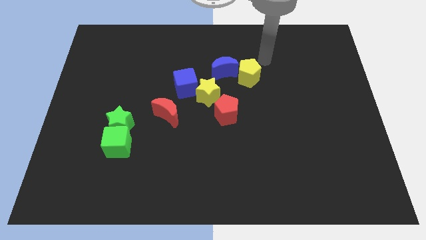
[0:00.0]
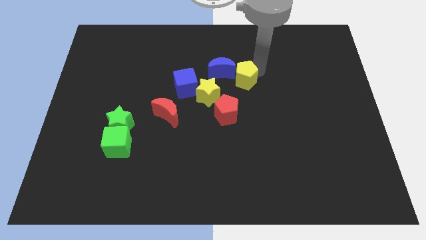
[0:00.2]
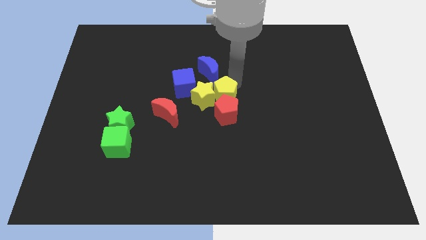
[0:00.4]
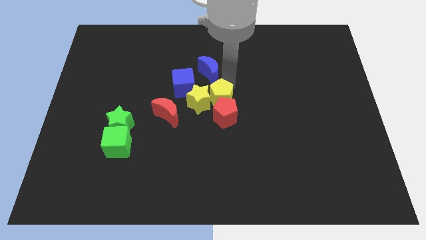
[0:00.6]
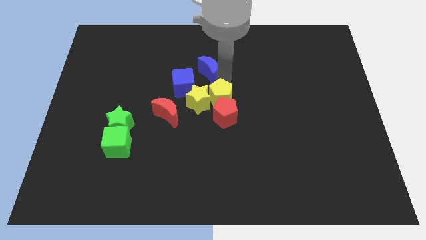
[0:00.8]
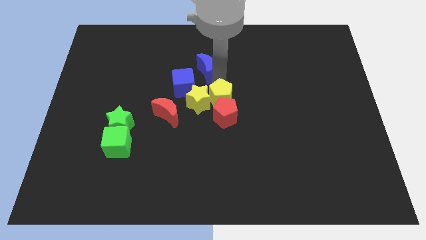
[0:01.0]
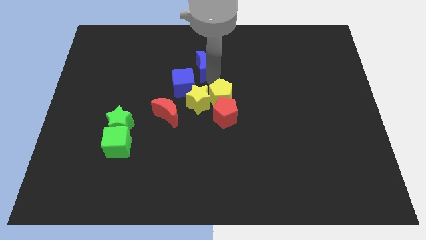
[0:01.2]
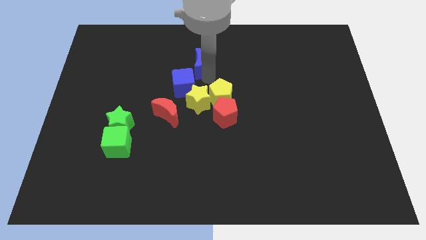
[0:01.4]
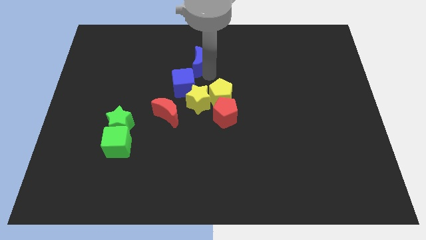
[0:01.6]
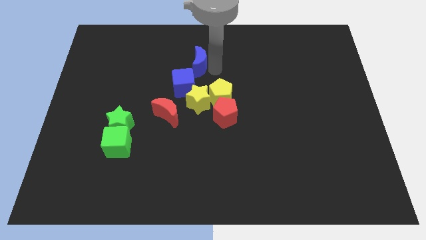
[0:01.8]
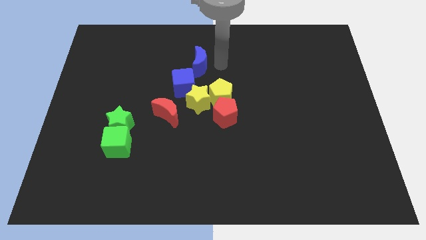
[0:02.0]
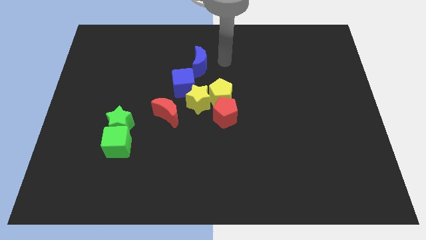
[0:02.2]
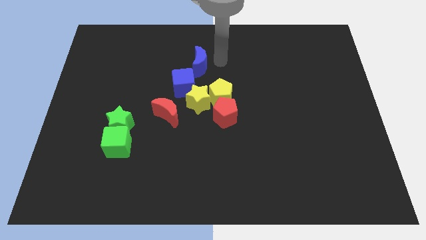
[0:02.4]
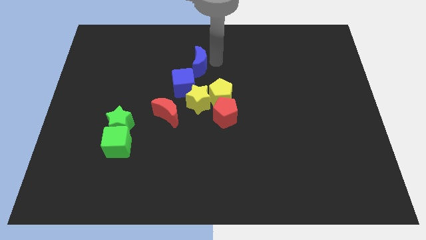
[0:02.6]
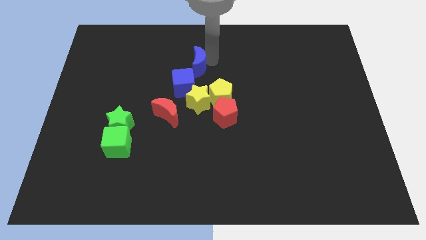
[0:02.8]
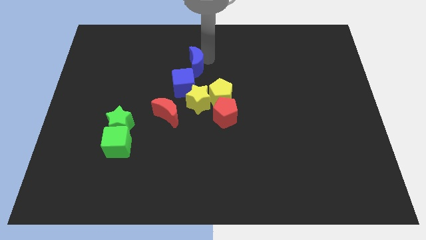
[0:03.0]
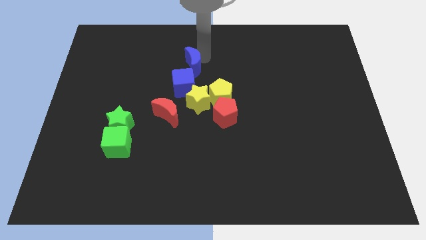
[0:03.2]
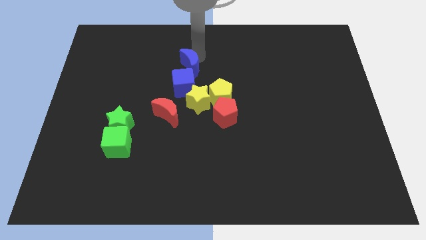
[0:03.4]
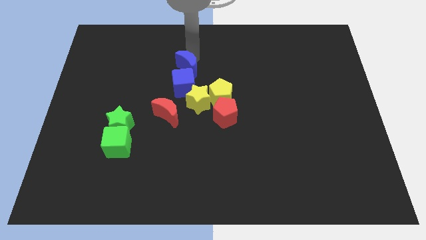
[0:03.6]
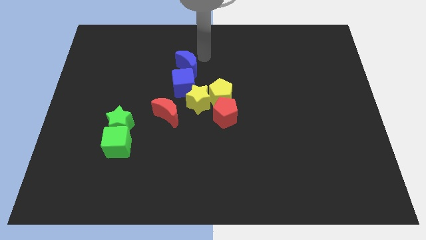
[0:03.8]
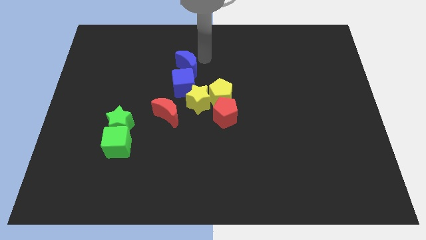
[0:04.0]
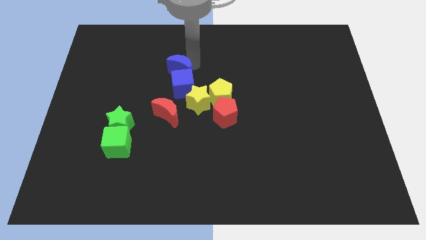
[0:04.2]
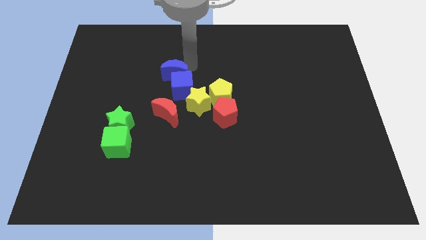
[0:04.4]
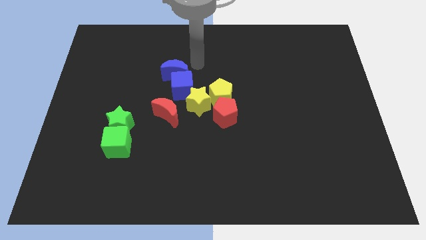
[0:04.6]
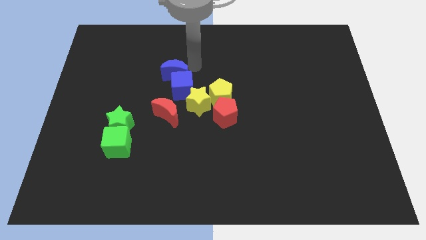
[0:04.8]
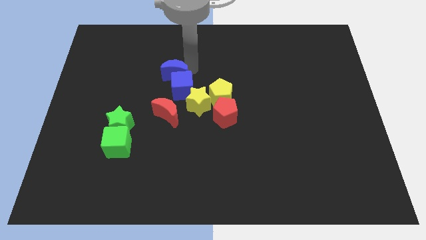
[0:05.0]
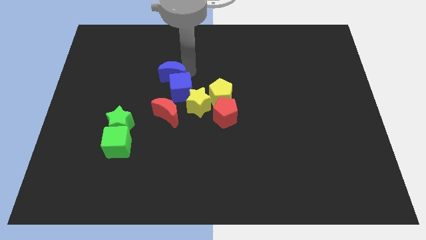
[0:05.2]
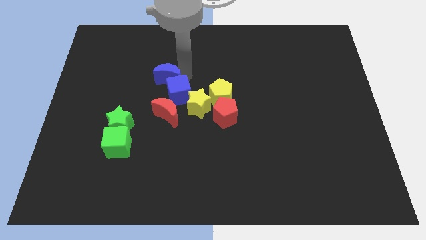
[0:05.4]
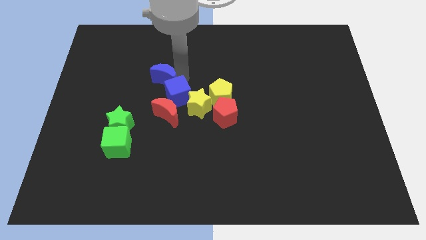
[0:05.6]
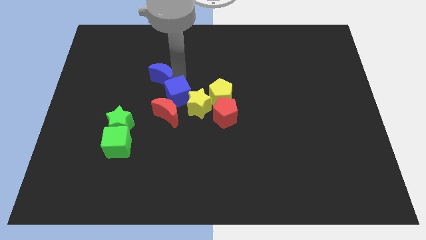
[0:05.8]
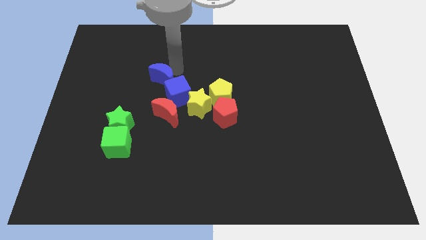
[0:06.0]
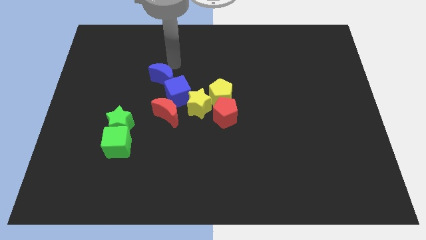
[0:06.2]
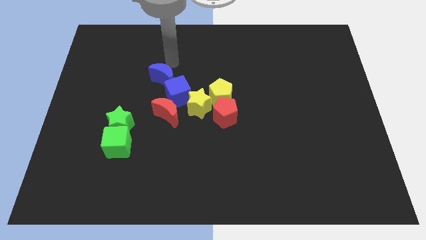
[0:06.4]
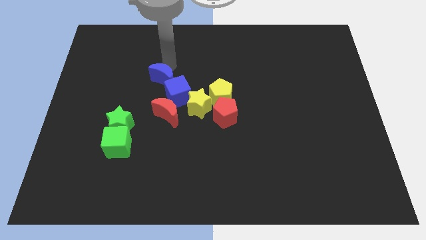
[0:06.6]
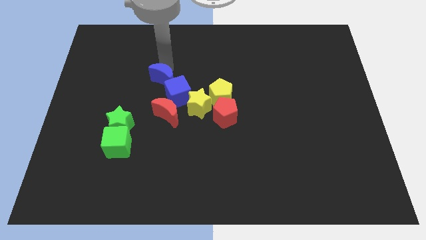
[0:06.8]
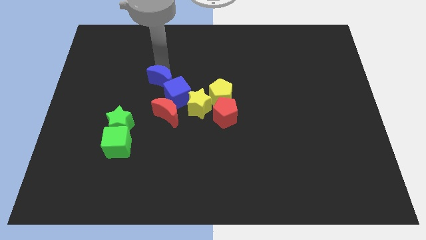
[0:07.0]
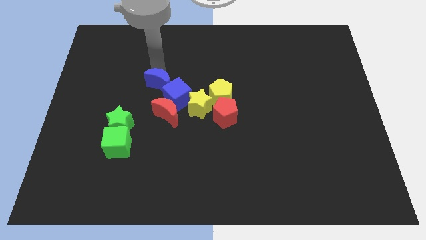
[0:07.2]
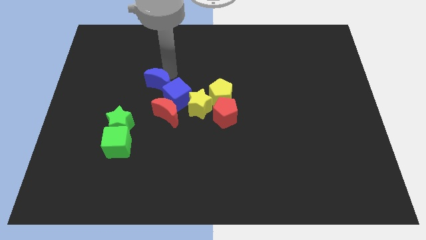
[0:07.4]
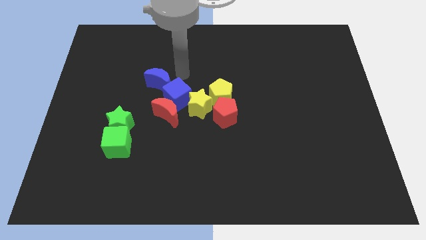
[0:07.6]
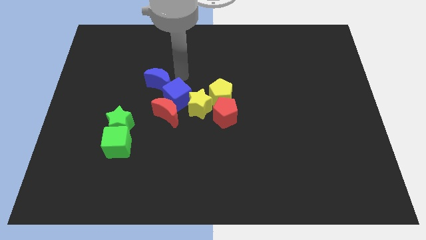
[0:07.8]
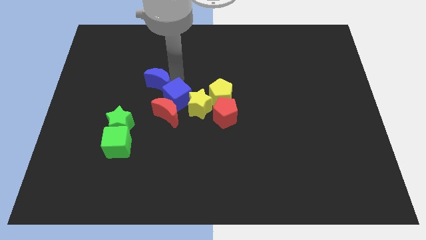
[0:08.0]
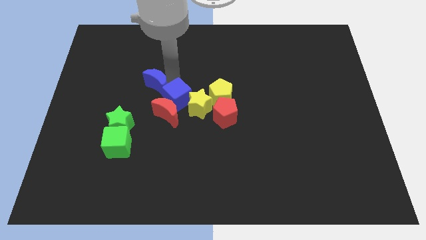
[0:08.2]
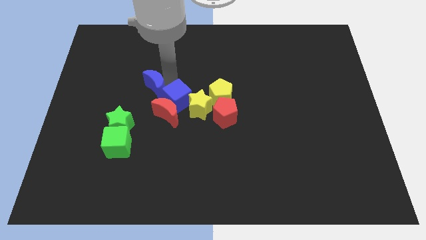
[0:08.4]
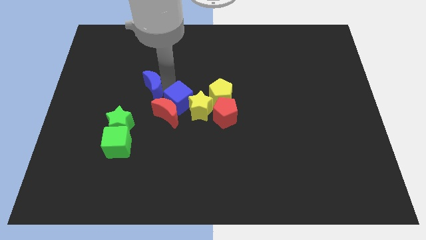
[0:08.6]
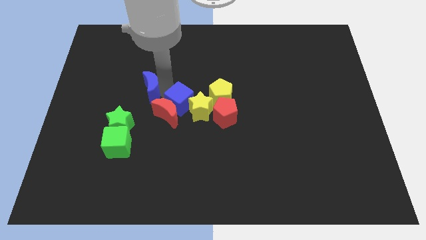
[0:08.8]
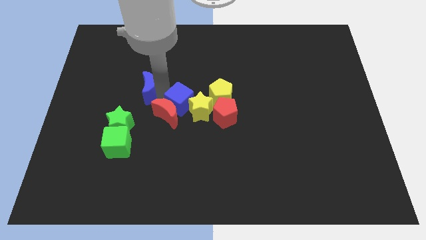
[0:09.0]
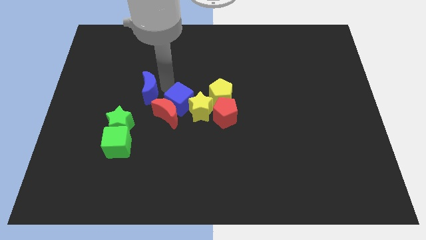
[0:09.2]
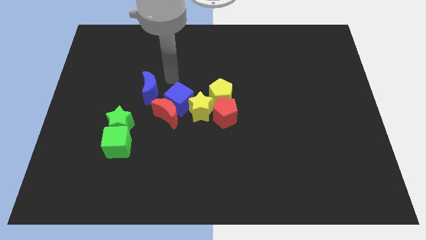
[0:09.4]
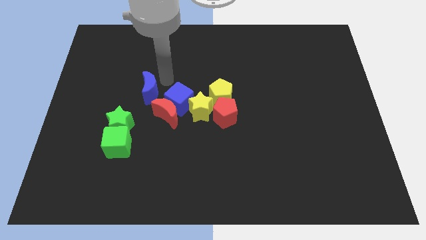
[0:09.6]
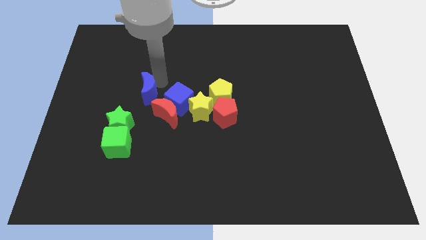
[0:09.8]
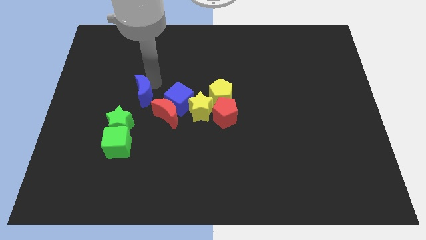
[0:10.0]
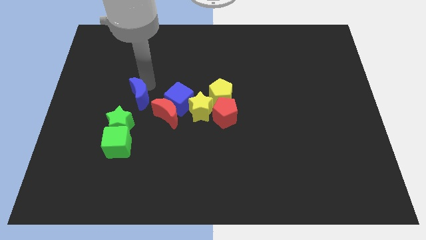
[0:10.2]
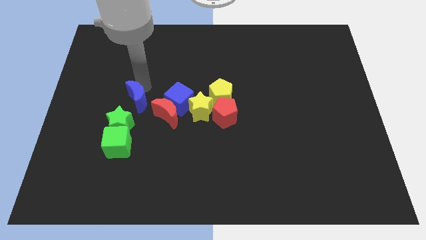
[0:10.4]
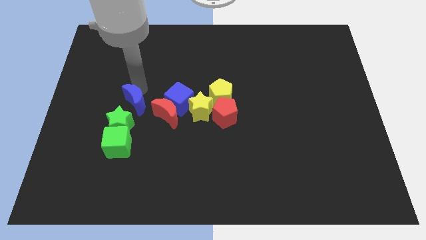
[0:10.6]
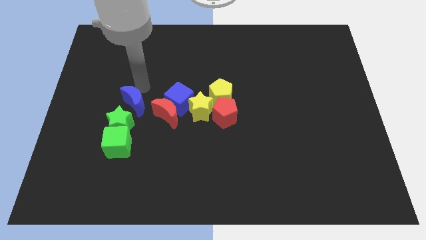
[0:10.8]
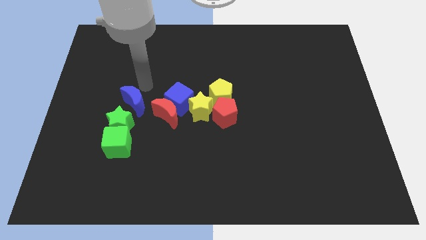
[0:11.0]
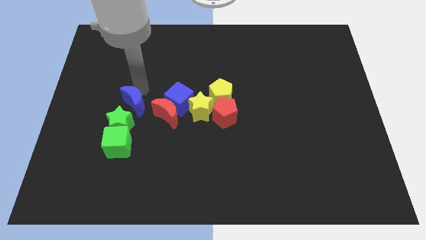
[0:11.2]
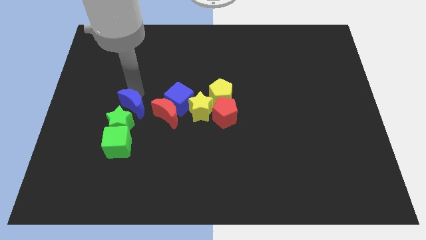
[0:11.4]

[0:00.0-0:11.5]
slide the blue moon to the green star

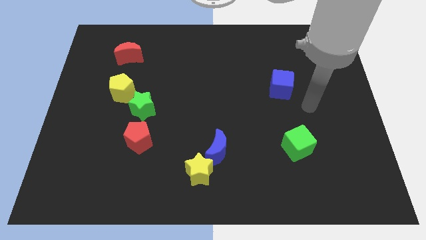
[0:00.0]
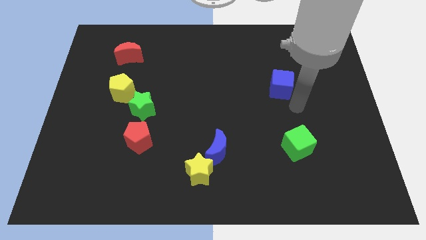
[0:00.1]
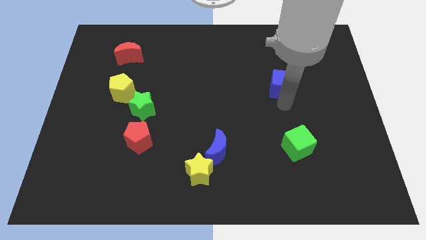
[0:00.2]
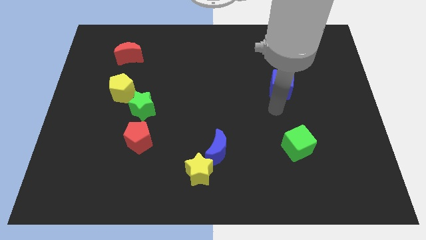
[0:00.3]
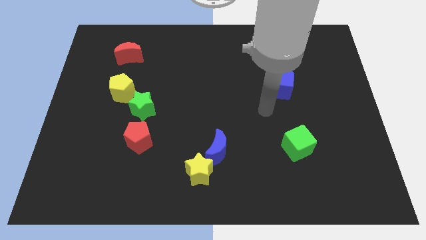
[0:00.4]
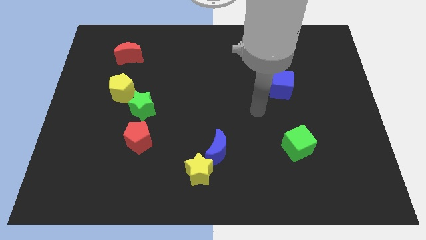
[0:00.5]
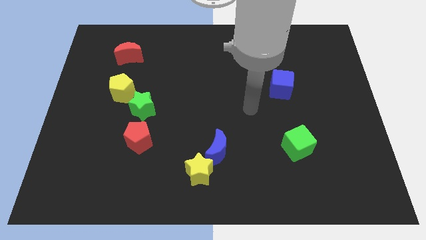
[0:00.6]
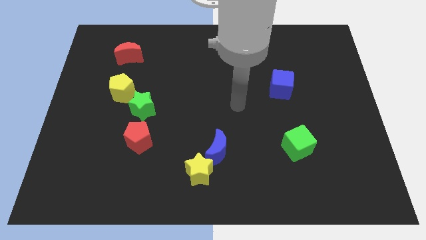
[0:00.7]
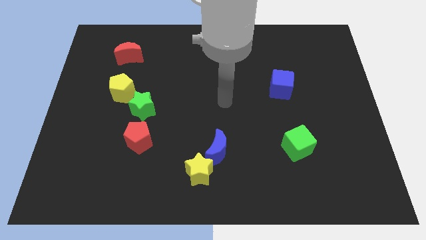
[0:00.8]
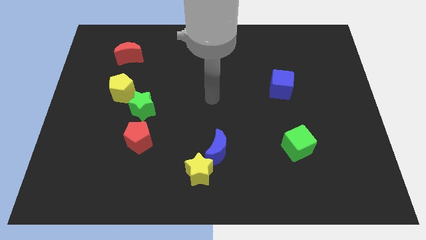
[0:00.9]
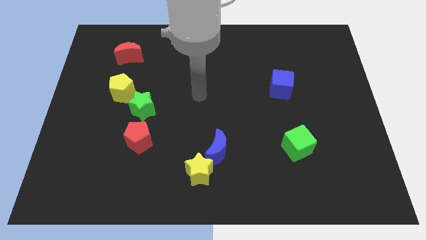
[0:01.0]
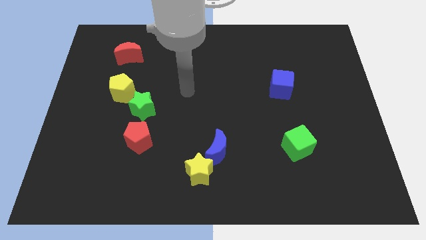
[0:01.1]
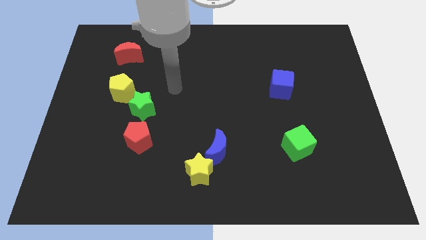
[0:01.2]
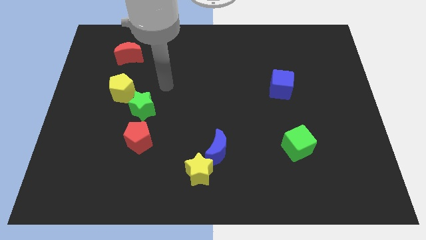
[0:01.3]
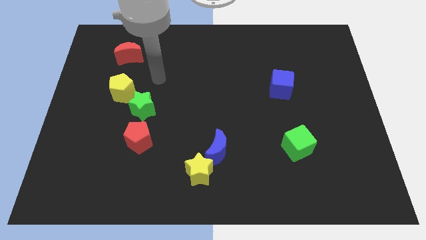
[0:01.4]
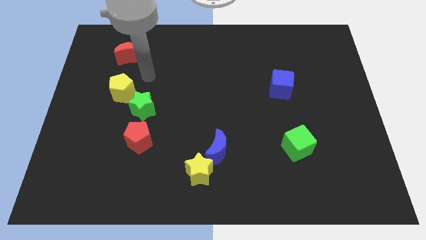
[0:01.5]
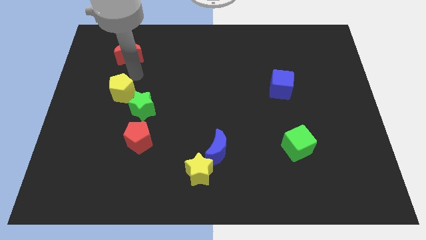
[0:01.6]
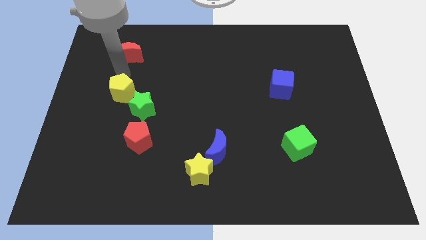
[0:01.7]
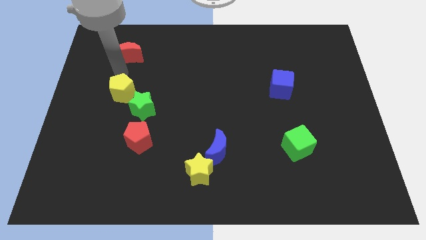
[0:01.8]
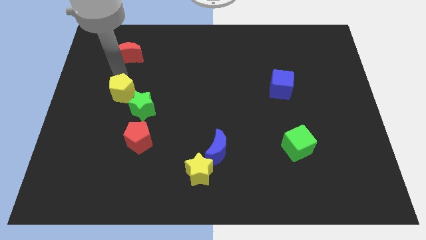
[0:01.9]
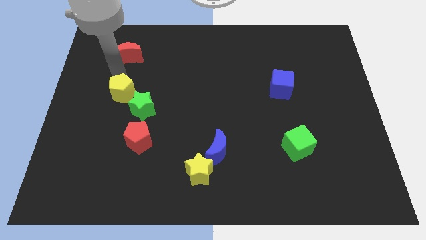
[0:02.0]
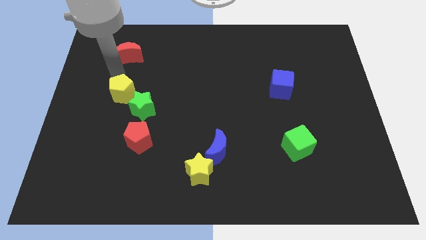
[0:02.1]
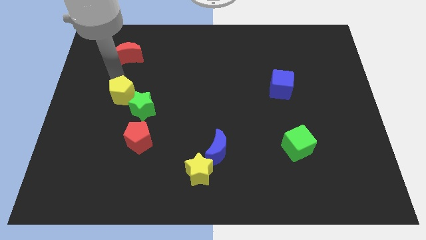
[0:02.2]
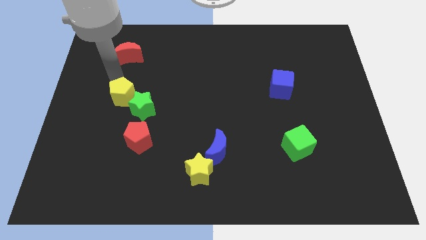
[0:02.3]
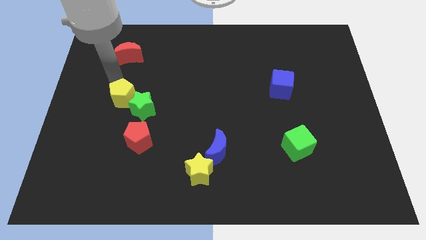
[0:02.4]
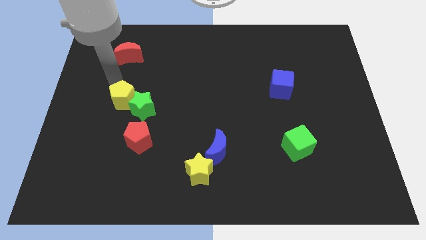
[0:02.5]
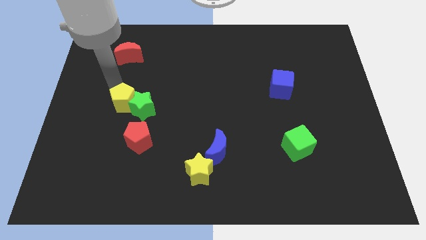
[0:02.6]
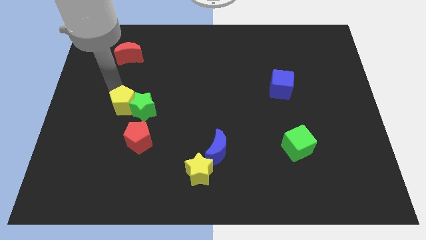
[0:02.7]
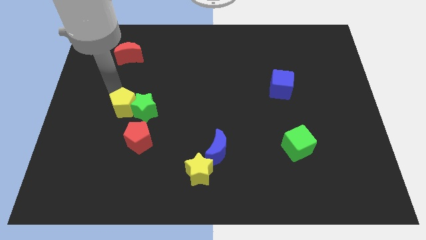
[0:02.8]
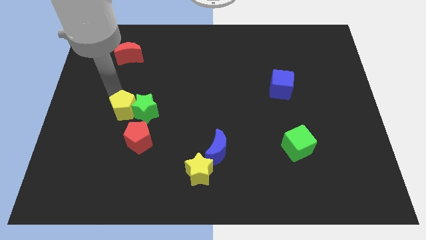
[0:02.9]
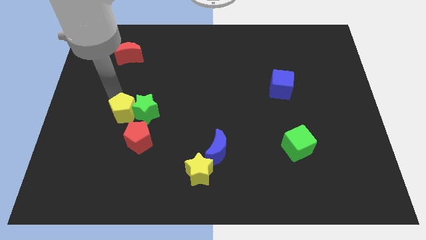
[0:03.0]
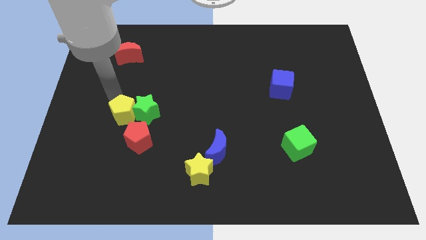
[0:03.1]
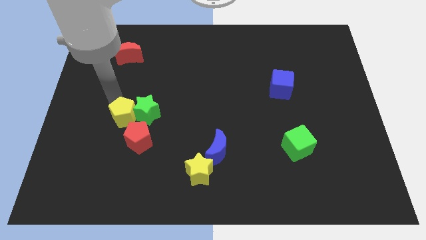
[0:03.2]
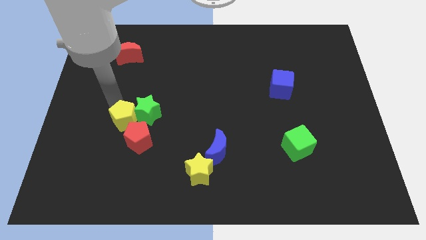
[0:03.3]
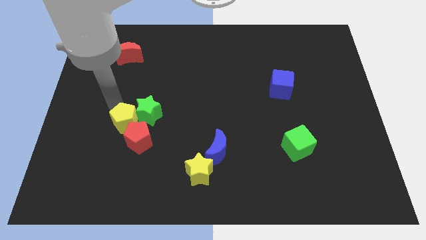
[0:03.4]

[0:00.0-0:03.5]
slide the yellow pentagon to the red pentagon
